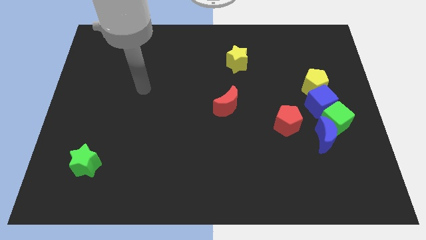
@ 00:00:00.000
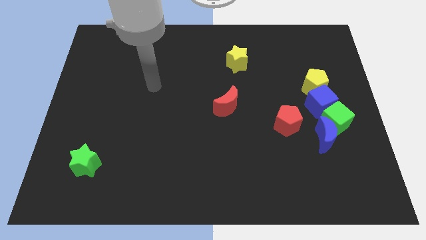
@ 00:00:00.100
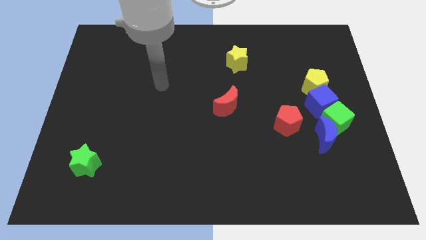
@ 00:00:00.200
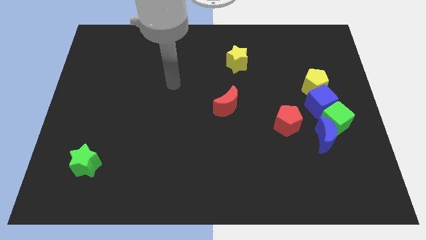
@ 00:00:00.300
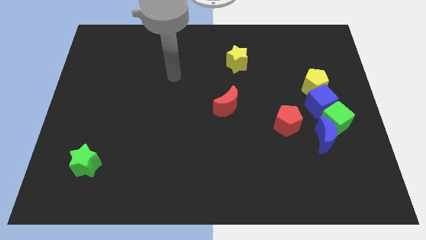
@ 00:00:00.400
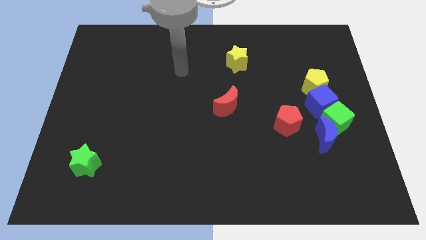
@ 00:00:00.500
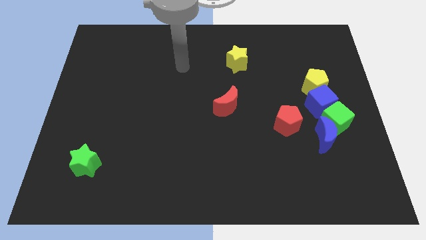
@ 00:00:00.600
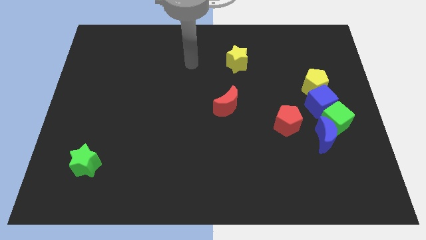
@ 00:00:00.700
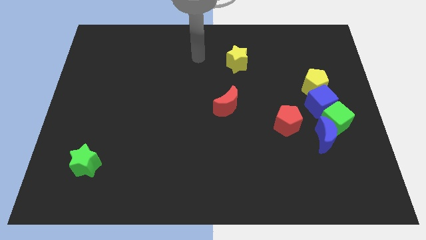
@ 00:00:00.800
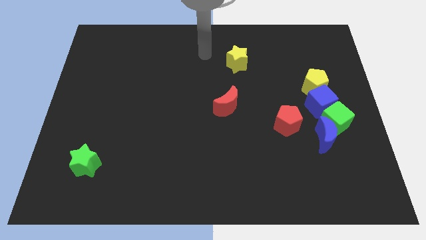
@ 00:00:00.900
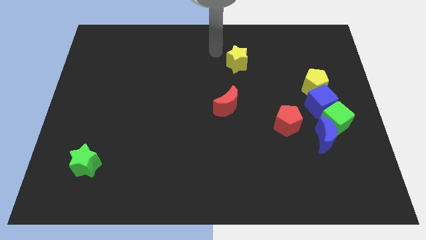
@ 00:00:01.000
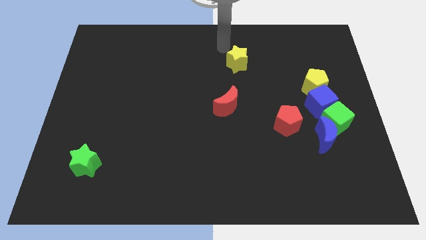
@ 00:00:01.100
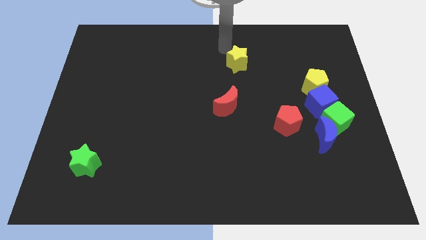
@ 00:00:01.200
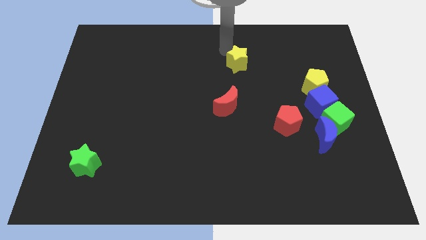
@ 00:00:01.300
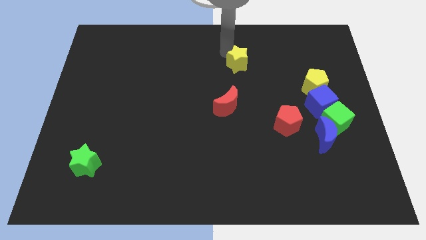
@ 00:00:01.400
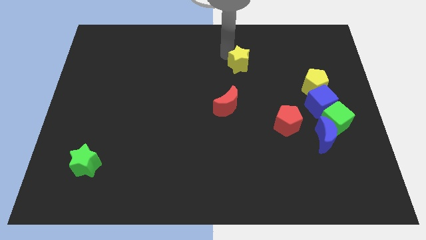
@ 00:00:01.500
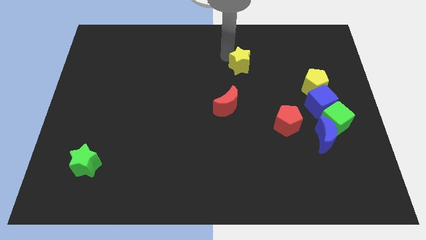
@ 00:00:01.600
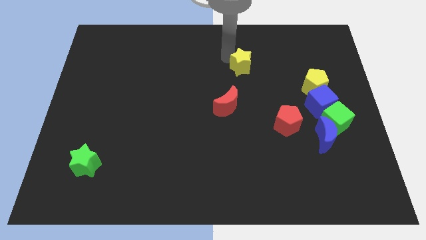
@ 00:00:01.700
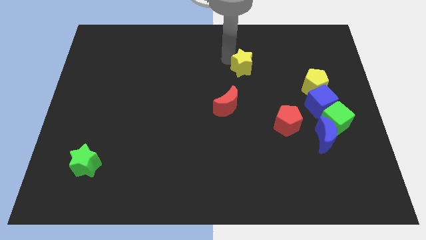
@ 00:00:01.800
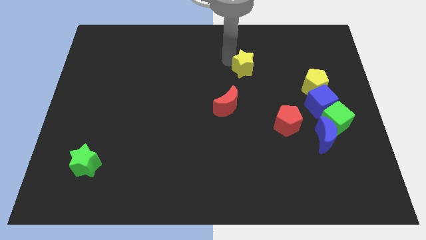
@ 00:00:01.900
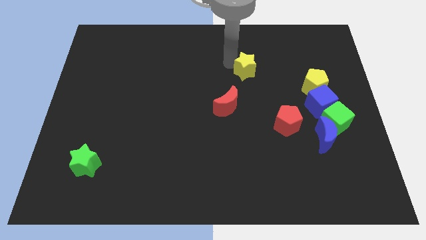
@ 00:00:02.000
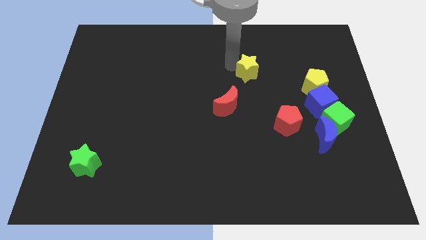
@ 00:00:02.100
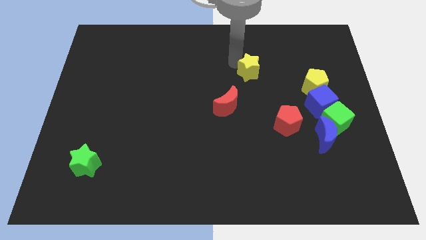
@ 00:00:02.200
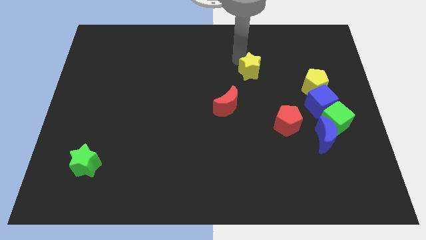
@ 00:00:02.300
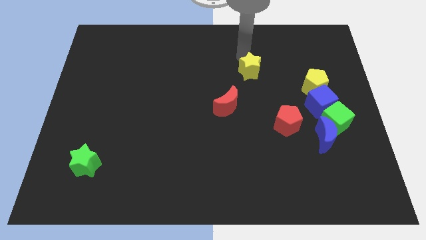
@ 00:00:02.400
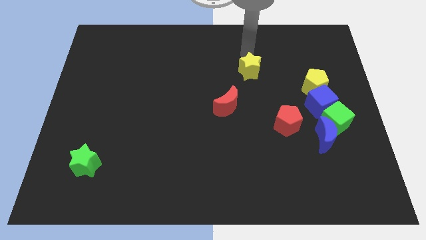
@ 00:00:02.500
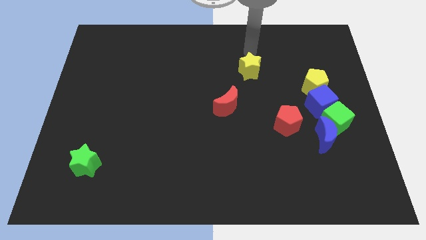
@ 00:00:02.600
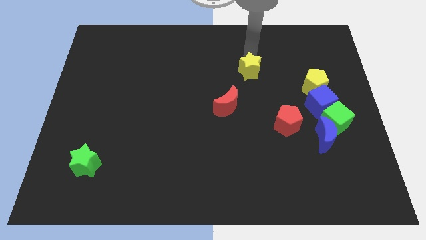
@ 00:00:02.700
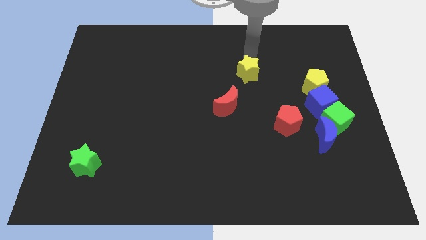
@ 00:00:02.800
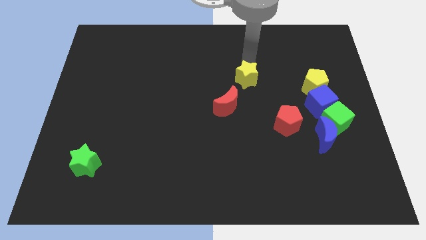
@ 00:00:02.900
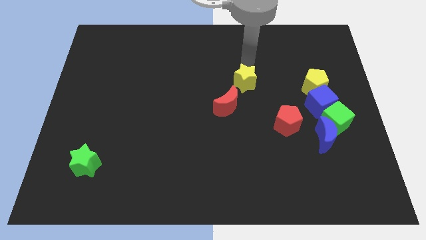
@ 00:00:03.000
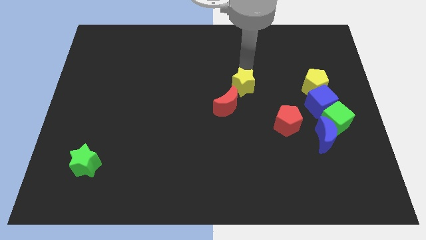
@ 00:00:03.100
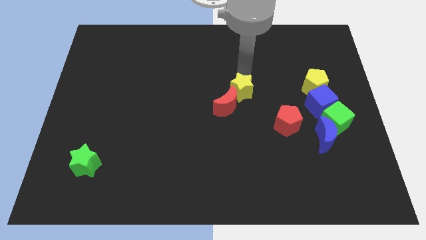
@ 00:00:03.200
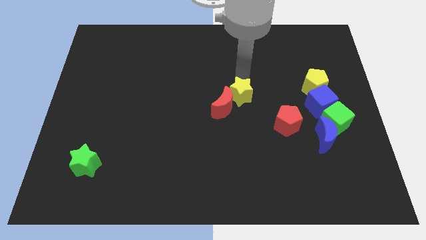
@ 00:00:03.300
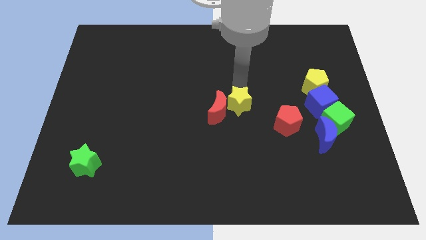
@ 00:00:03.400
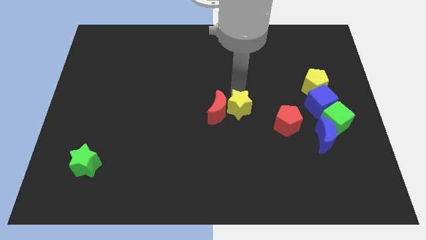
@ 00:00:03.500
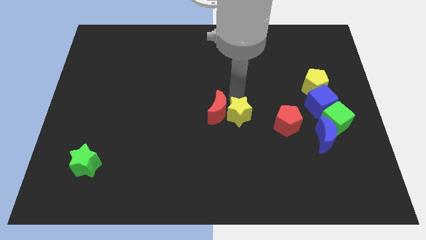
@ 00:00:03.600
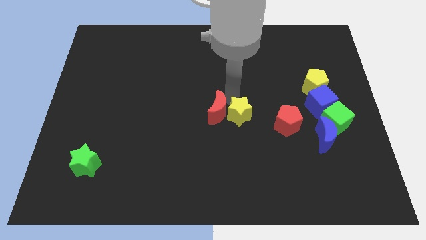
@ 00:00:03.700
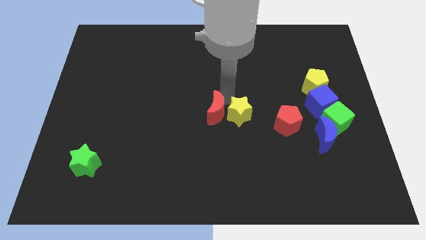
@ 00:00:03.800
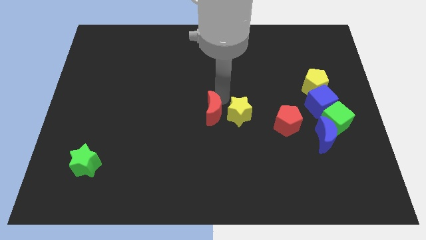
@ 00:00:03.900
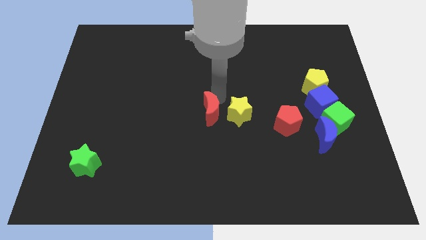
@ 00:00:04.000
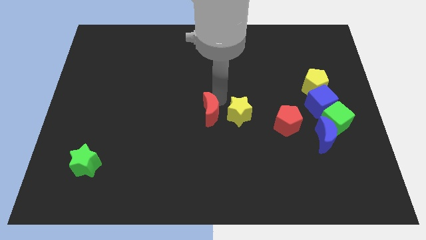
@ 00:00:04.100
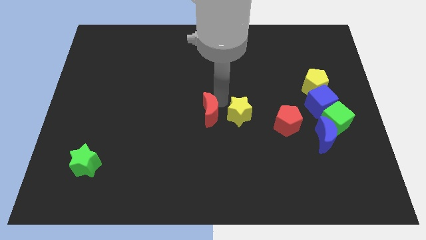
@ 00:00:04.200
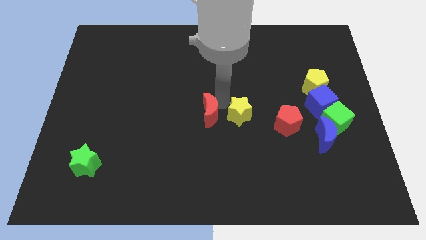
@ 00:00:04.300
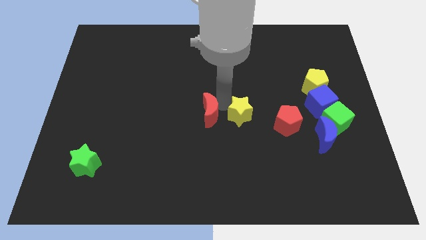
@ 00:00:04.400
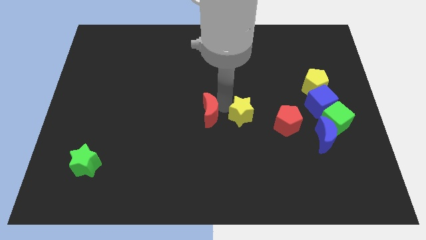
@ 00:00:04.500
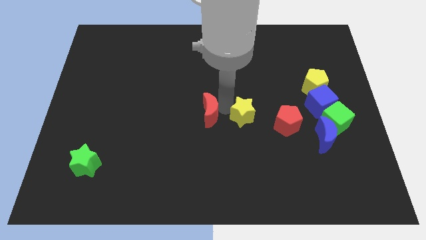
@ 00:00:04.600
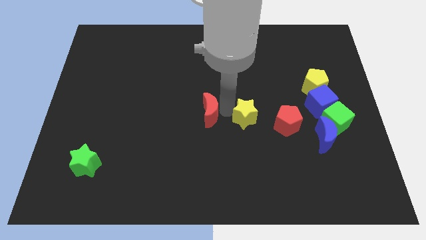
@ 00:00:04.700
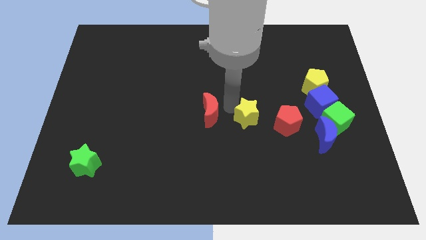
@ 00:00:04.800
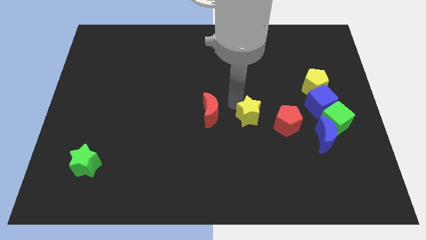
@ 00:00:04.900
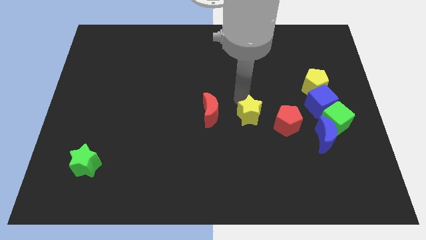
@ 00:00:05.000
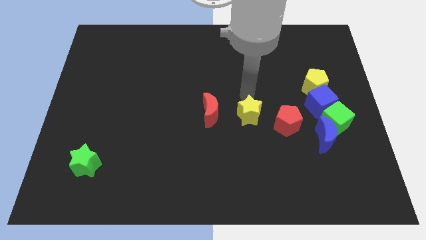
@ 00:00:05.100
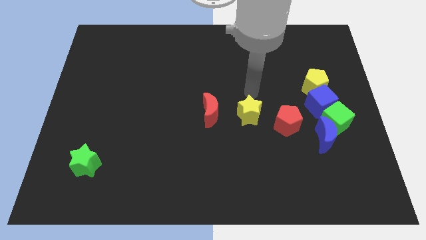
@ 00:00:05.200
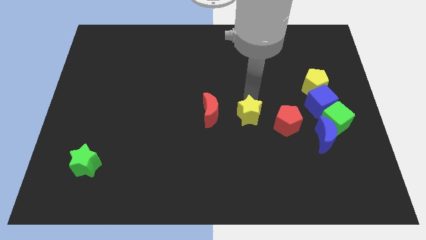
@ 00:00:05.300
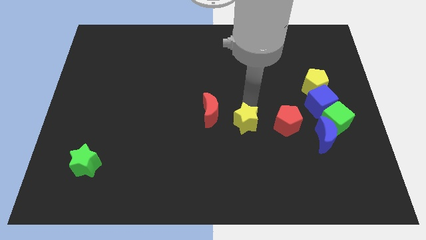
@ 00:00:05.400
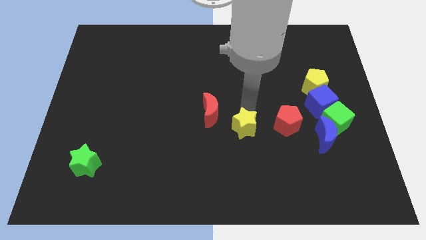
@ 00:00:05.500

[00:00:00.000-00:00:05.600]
slide the yellow star down

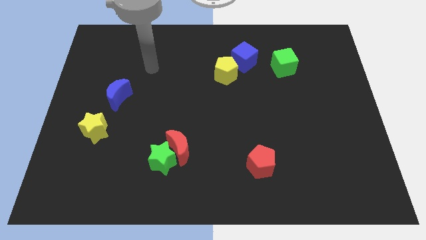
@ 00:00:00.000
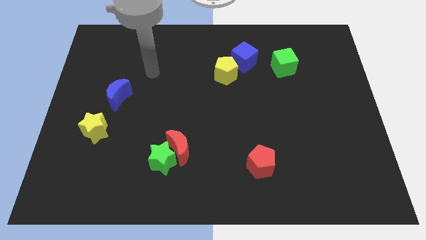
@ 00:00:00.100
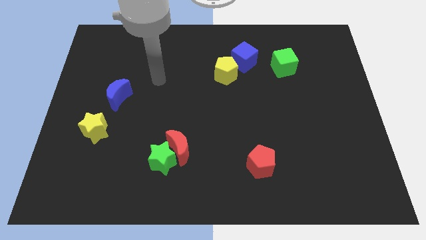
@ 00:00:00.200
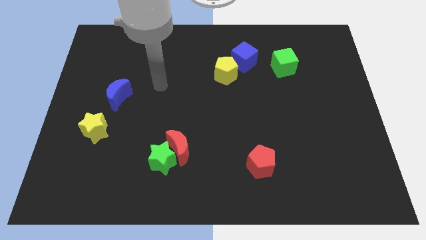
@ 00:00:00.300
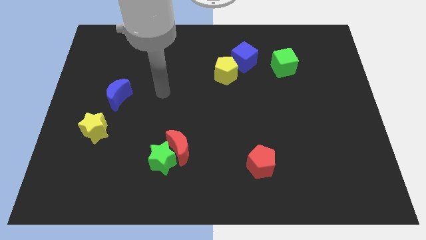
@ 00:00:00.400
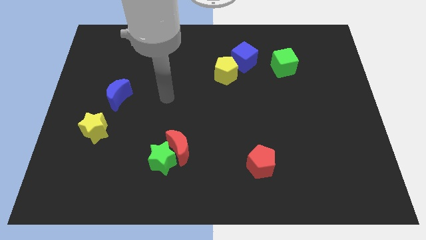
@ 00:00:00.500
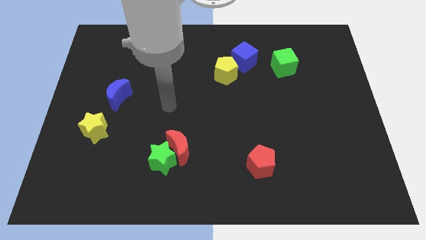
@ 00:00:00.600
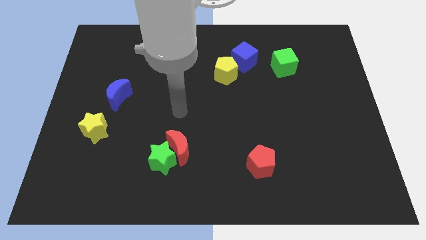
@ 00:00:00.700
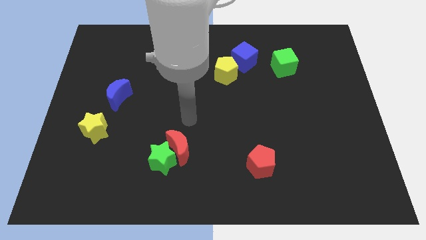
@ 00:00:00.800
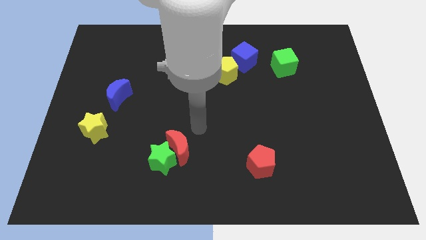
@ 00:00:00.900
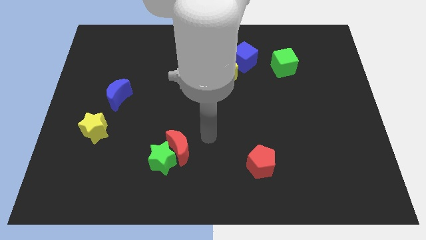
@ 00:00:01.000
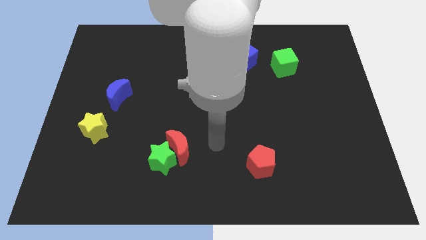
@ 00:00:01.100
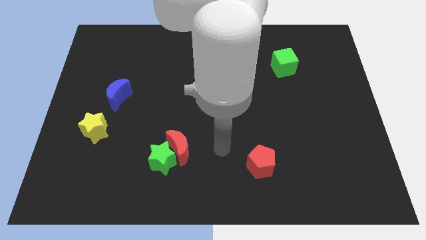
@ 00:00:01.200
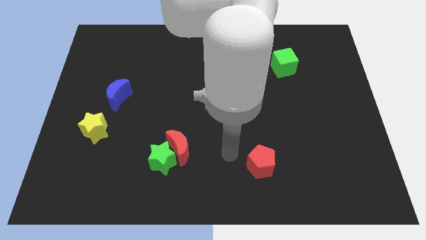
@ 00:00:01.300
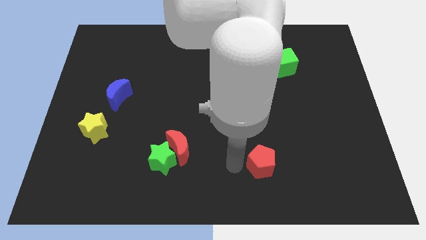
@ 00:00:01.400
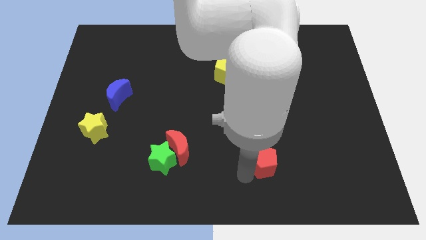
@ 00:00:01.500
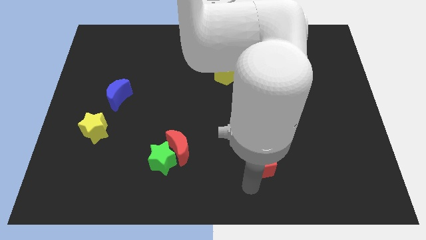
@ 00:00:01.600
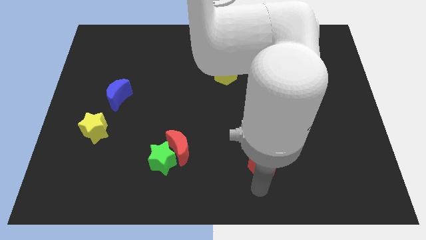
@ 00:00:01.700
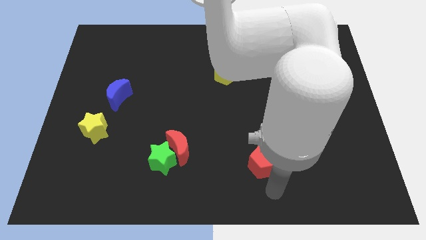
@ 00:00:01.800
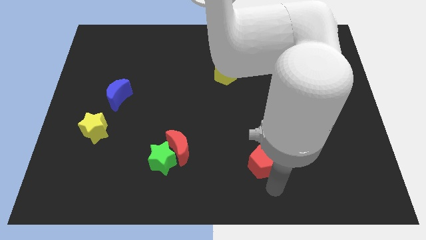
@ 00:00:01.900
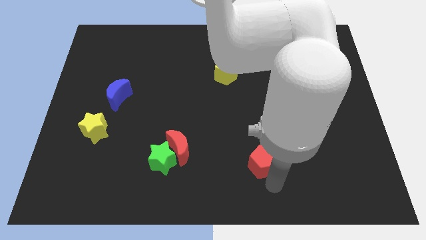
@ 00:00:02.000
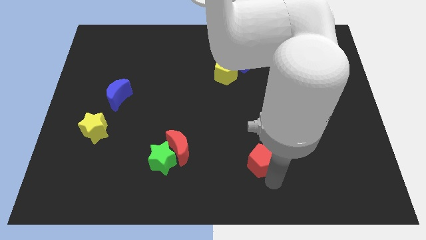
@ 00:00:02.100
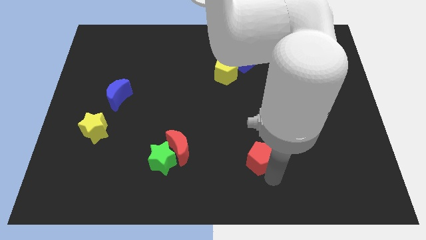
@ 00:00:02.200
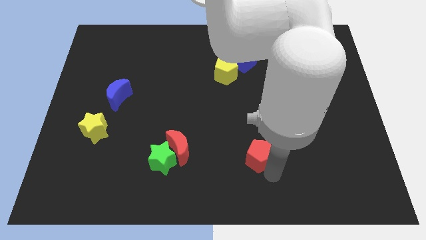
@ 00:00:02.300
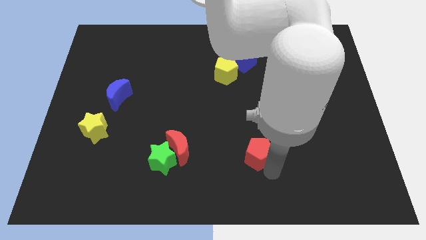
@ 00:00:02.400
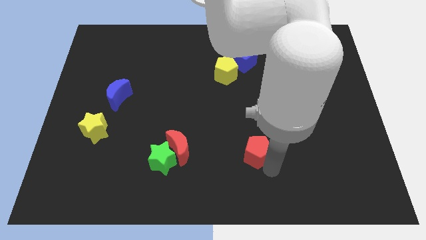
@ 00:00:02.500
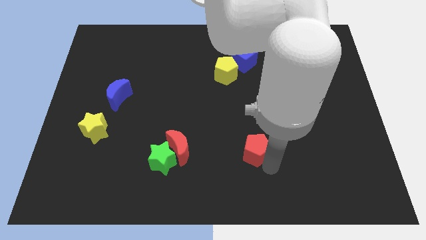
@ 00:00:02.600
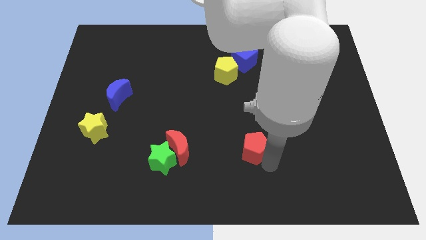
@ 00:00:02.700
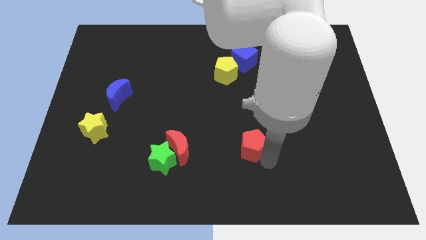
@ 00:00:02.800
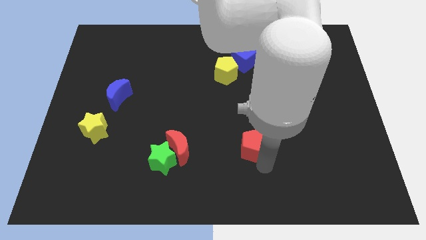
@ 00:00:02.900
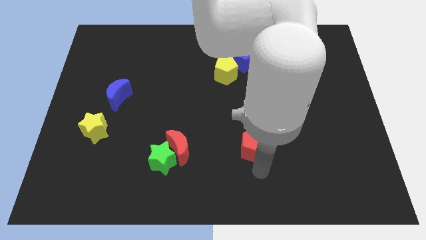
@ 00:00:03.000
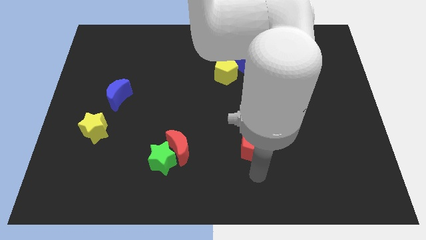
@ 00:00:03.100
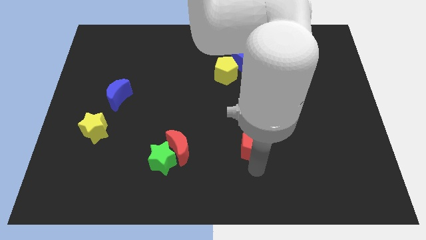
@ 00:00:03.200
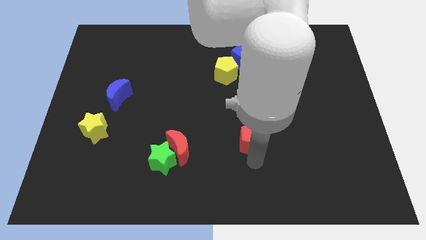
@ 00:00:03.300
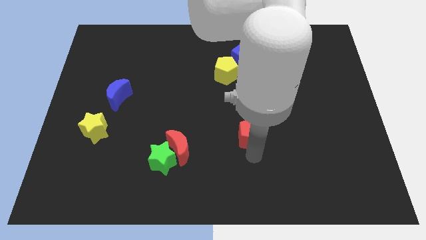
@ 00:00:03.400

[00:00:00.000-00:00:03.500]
slide the red pentagon somewhat up
